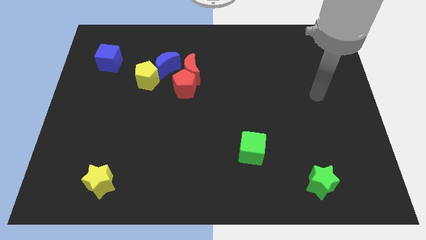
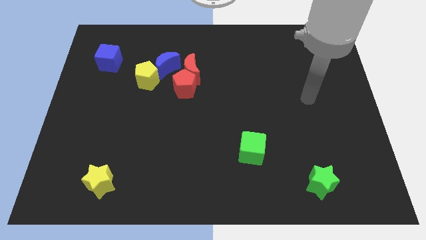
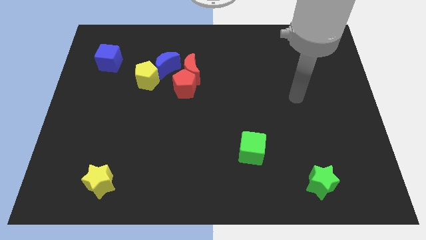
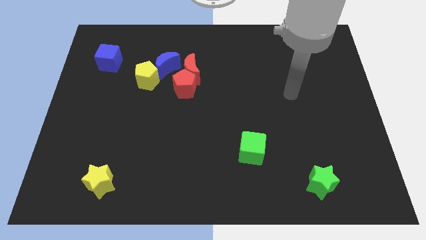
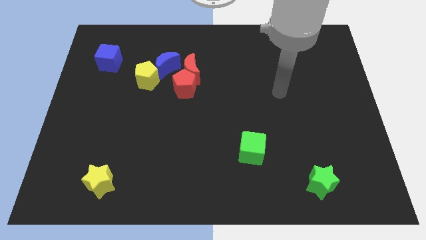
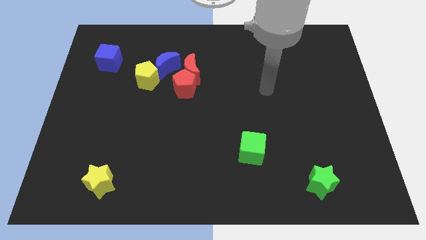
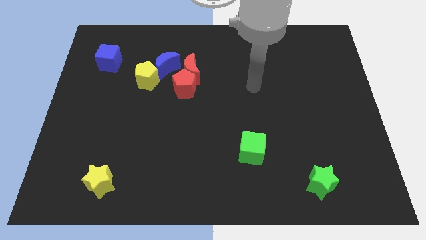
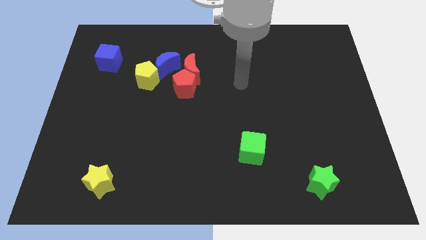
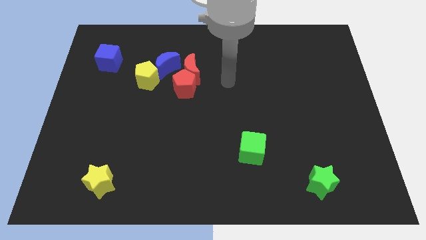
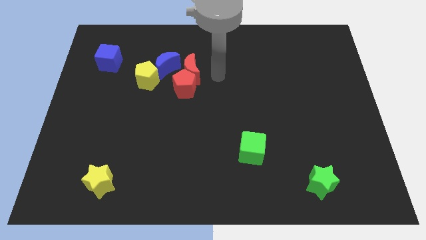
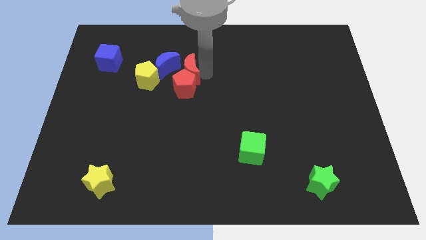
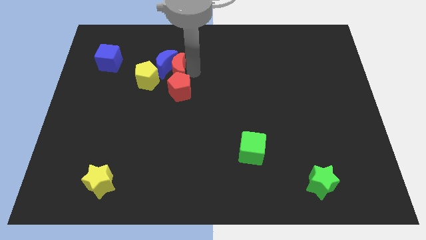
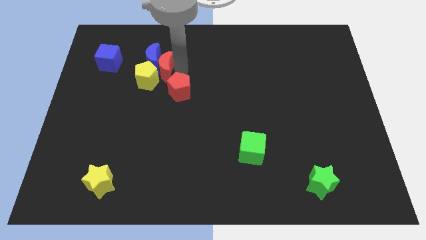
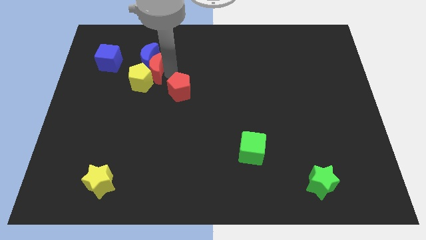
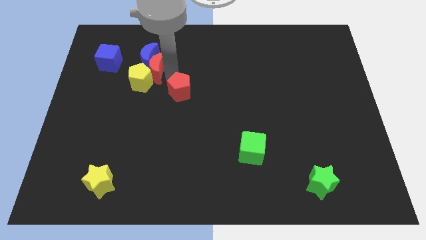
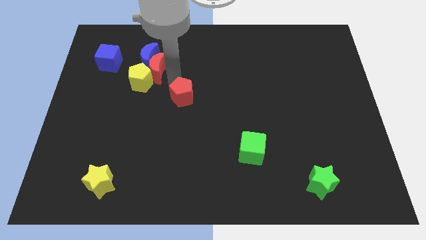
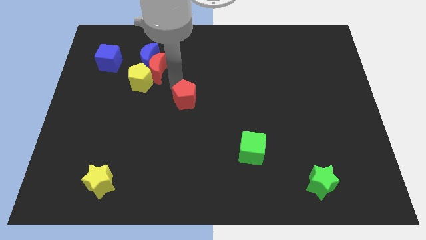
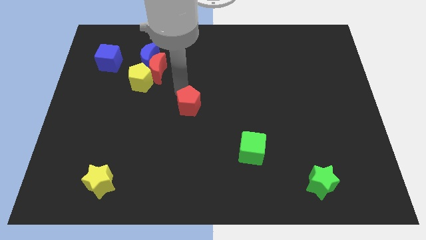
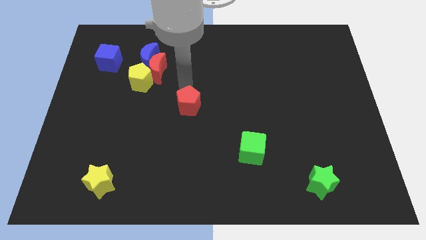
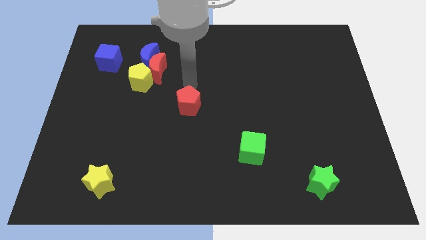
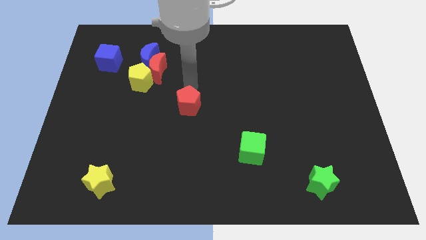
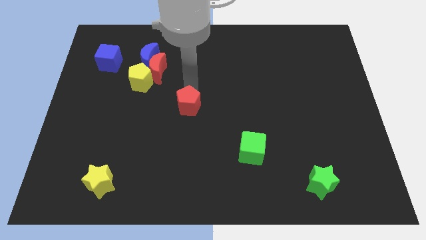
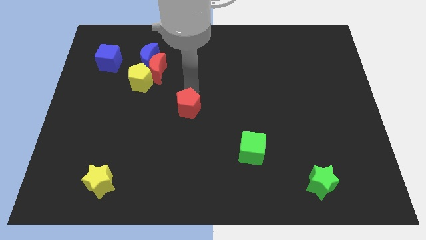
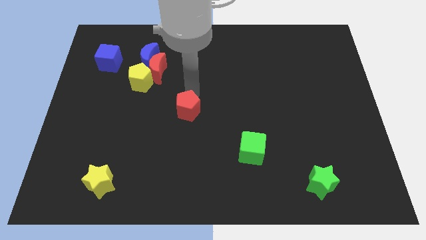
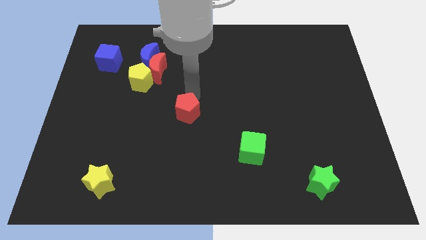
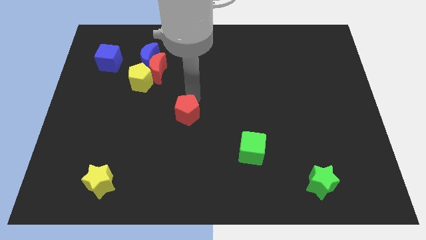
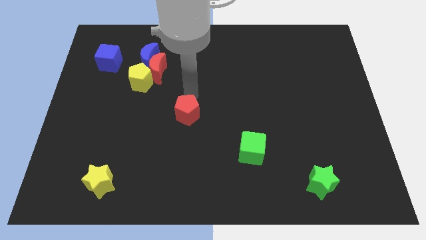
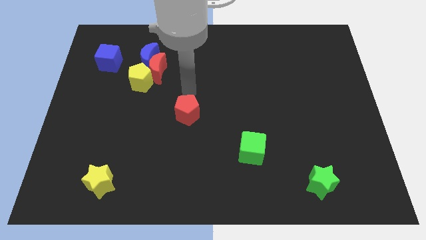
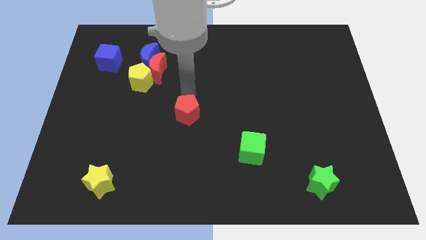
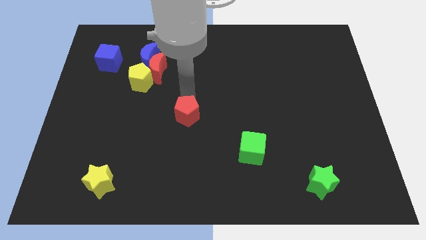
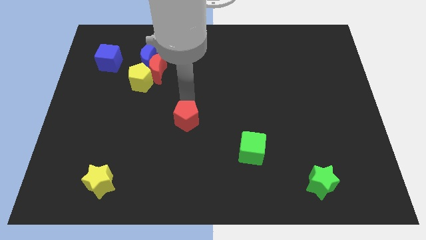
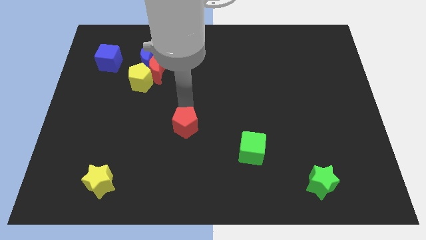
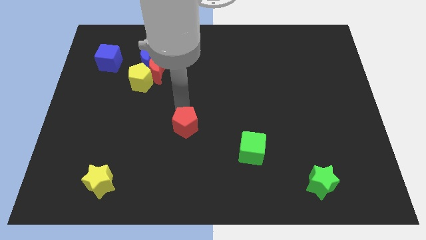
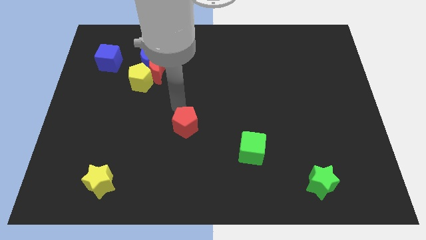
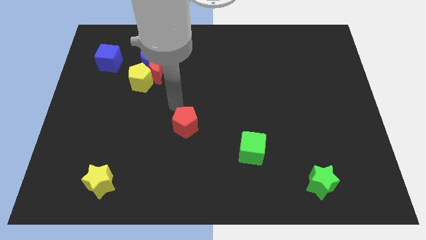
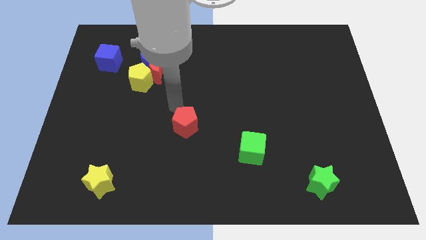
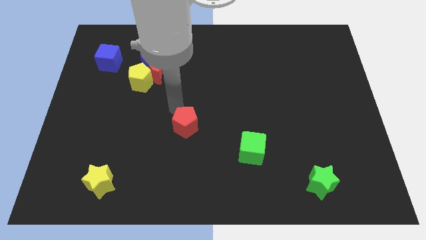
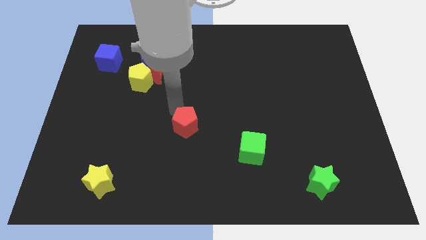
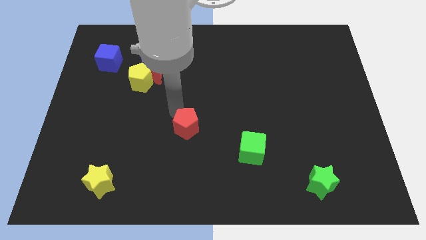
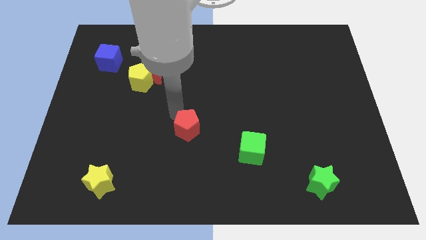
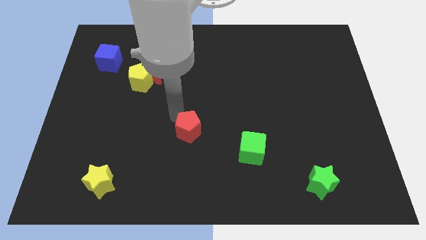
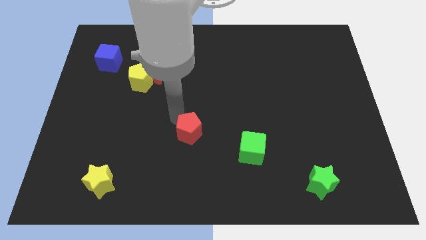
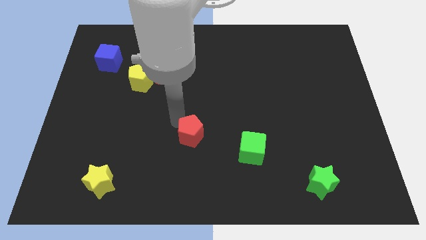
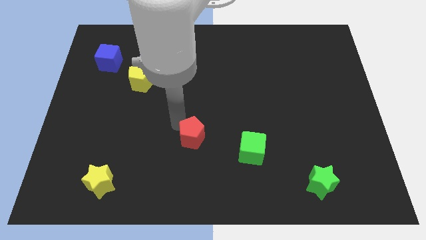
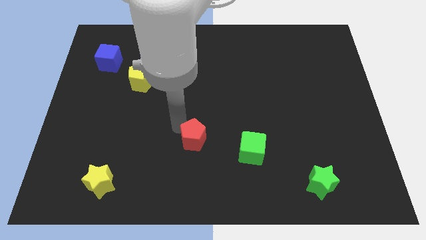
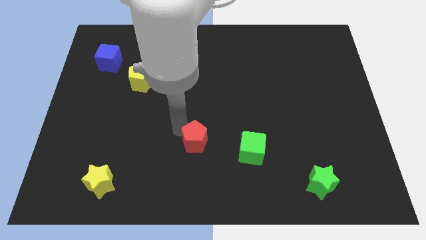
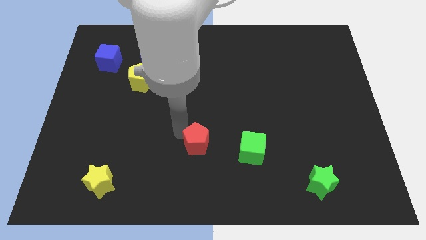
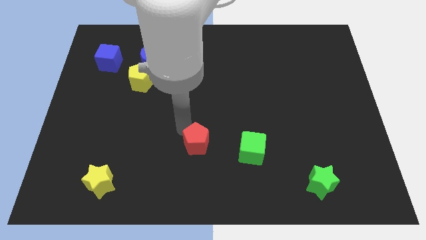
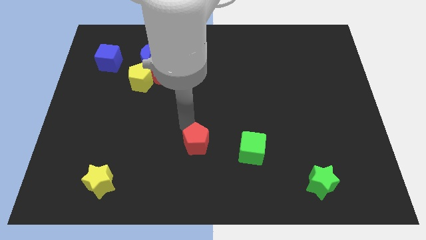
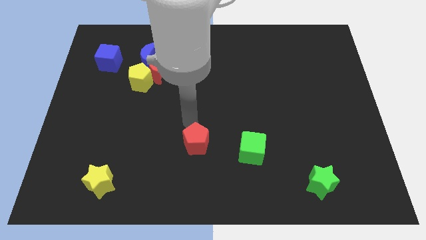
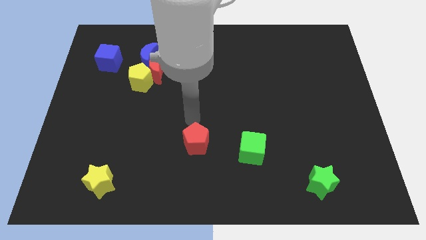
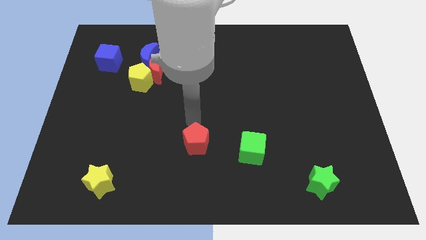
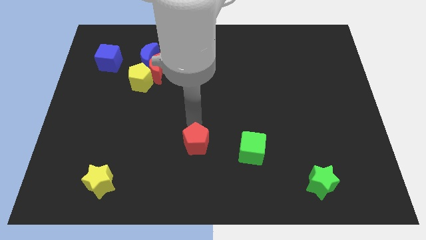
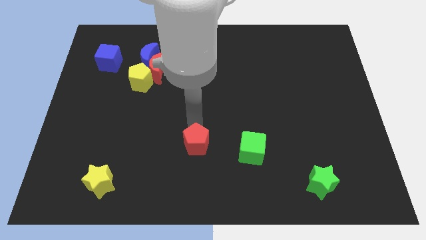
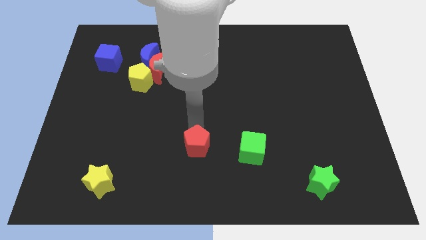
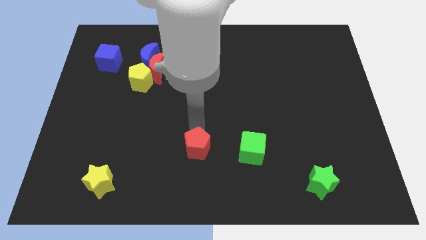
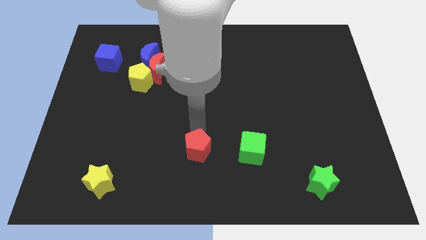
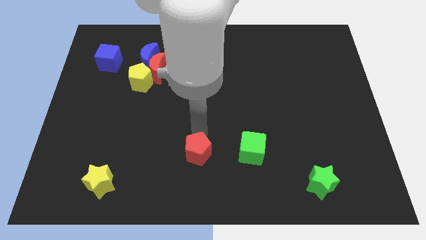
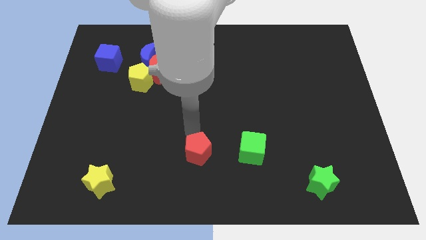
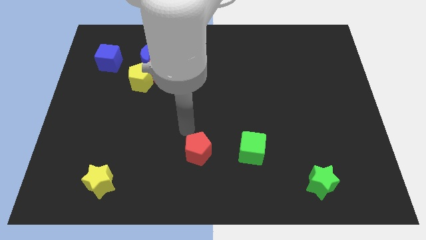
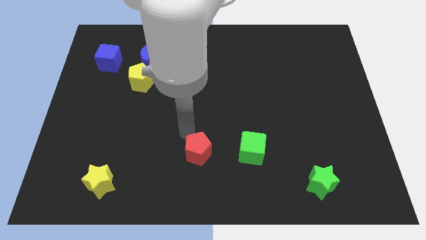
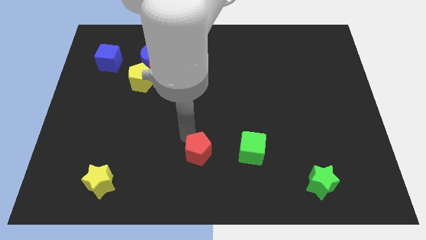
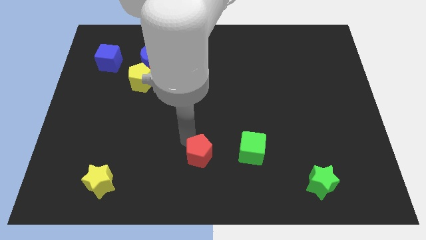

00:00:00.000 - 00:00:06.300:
slide the red pentagon to the bottom side
